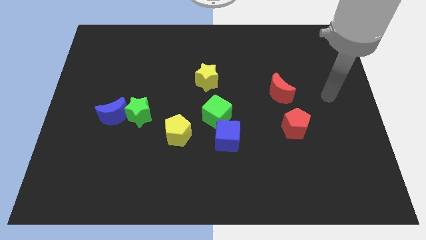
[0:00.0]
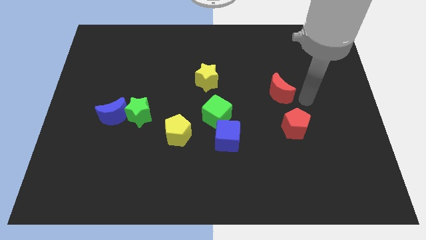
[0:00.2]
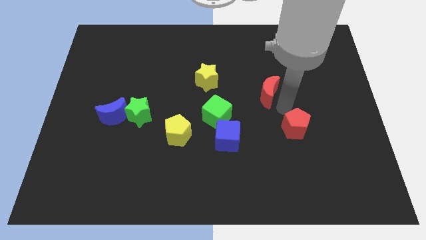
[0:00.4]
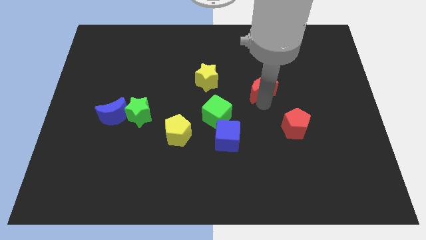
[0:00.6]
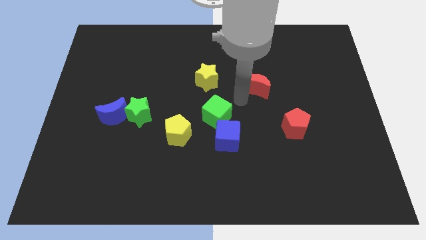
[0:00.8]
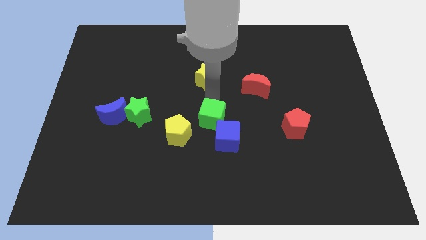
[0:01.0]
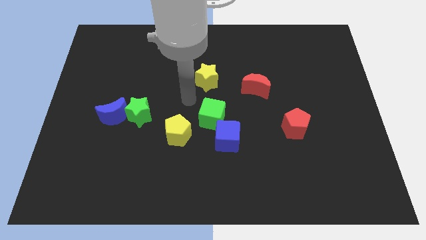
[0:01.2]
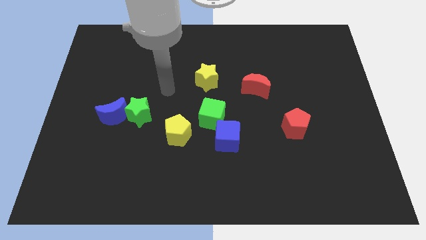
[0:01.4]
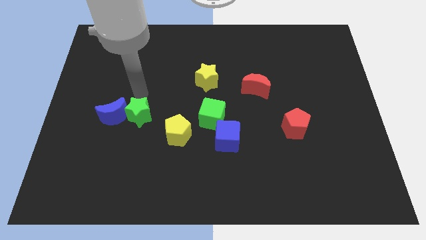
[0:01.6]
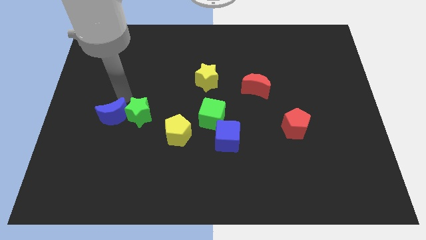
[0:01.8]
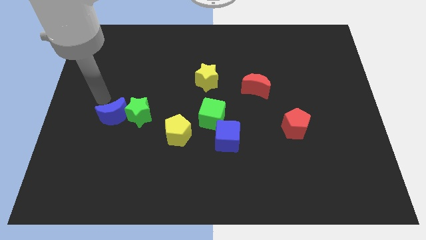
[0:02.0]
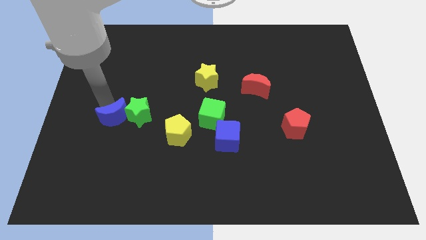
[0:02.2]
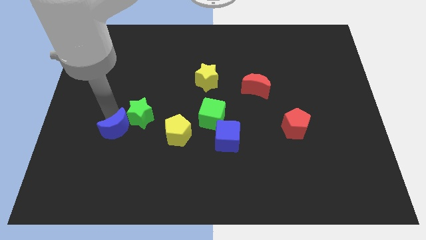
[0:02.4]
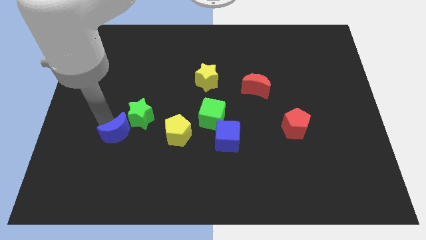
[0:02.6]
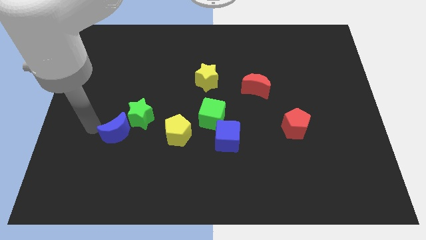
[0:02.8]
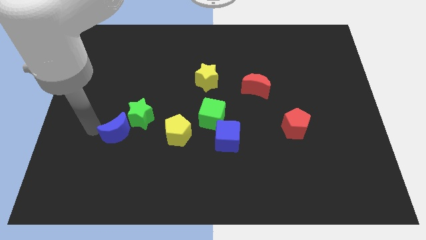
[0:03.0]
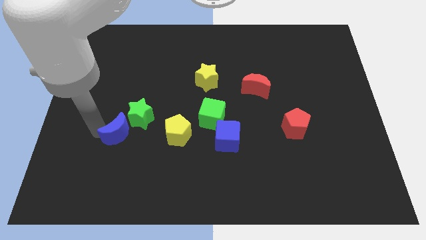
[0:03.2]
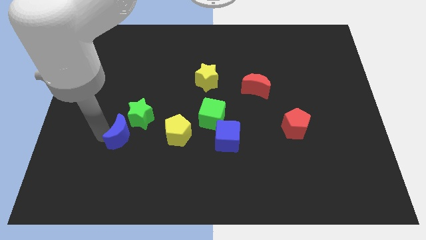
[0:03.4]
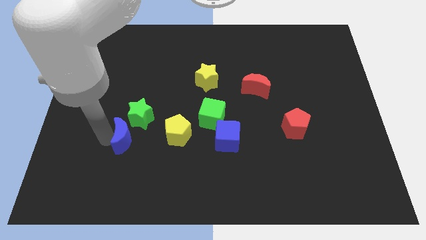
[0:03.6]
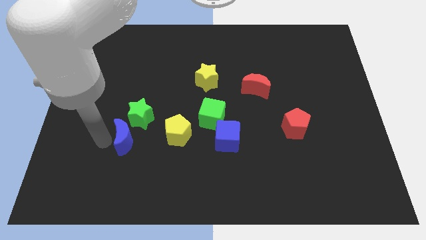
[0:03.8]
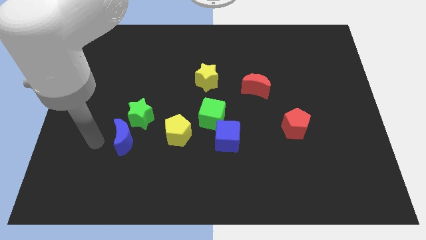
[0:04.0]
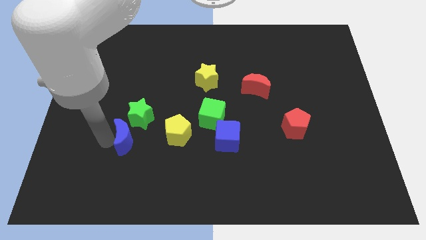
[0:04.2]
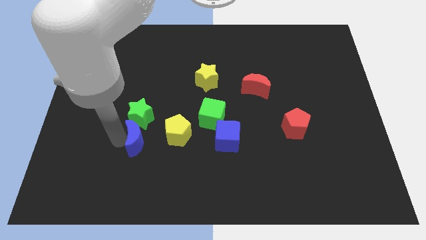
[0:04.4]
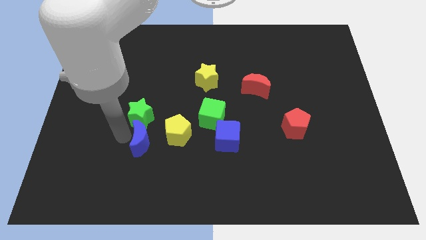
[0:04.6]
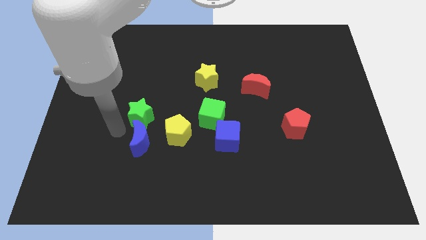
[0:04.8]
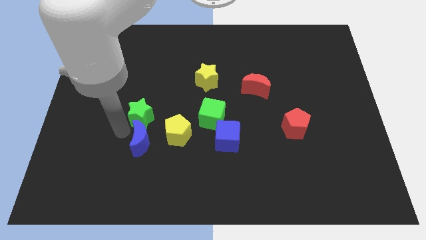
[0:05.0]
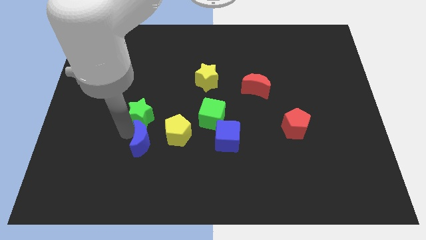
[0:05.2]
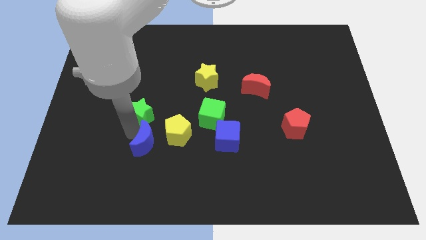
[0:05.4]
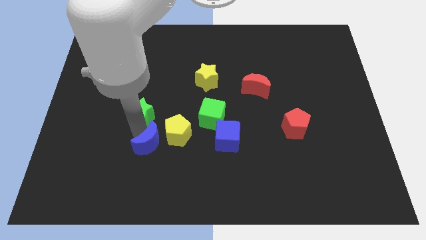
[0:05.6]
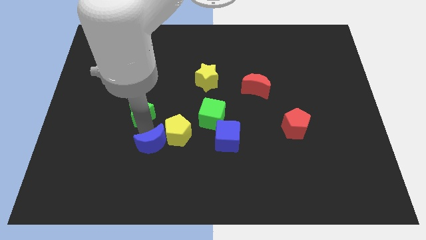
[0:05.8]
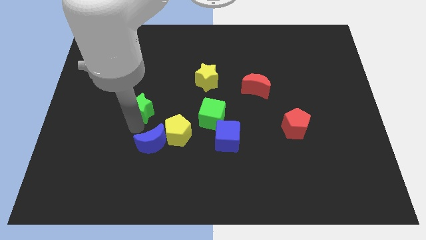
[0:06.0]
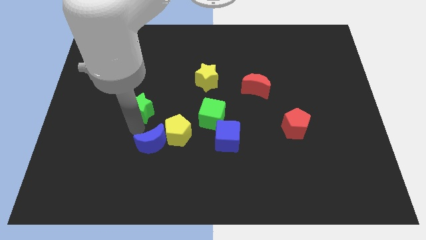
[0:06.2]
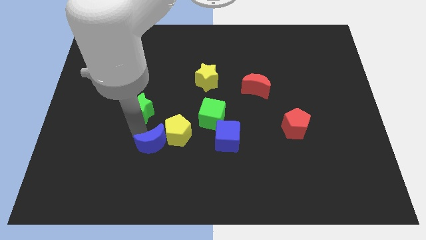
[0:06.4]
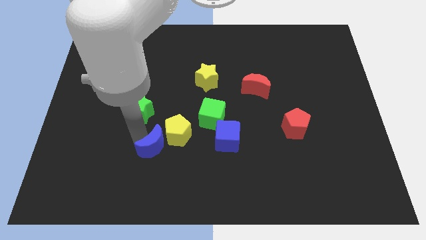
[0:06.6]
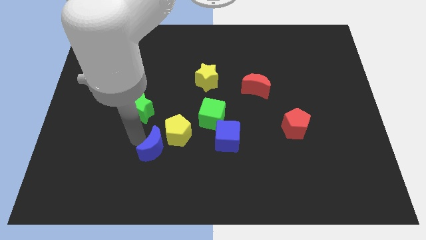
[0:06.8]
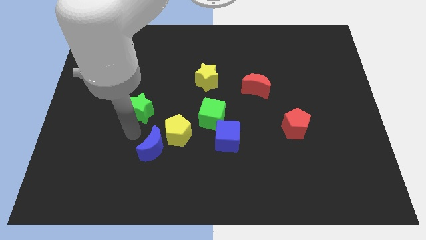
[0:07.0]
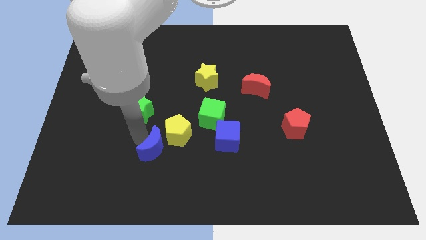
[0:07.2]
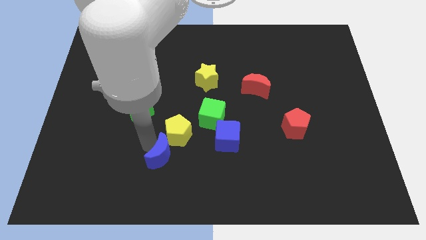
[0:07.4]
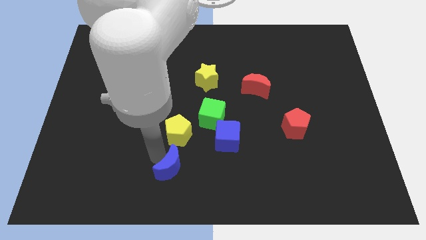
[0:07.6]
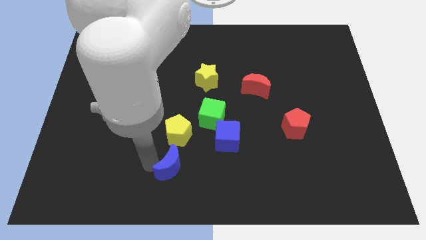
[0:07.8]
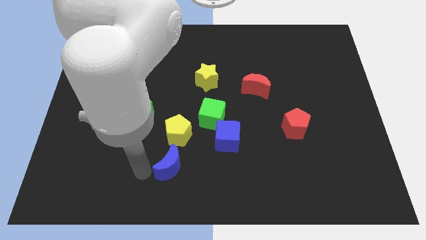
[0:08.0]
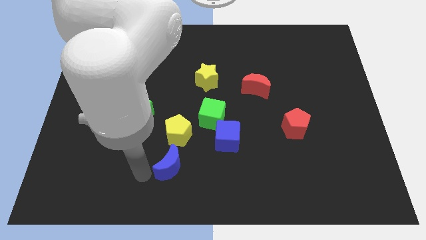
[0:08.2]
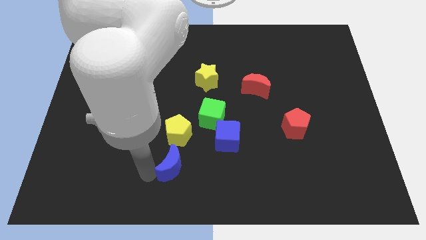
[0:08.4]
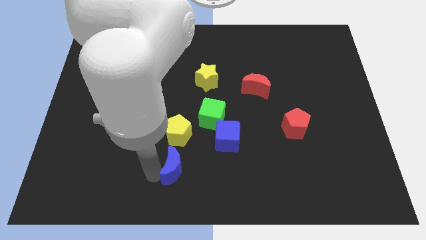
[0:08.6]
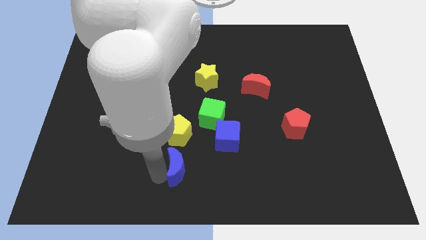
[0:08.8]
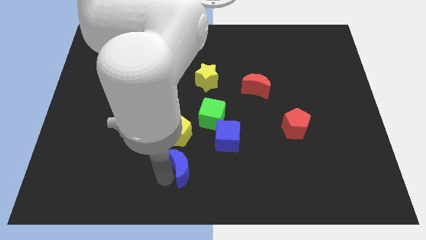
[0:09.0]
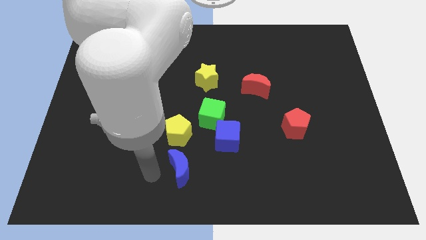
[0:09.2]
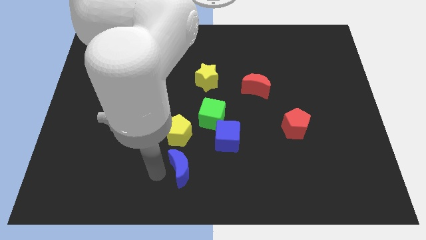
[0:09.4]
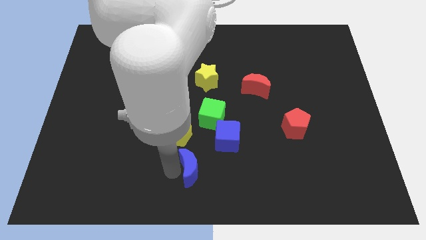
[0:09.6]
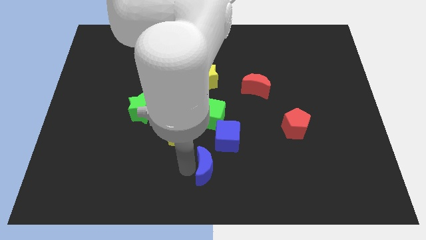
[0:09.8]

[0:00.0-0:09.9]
put the blue moon to the bottom side of the blue cube

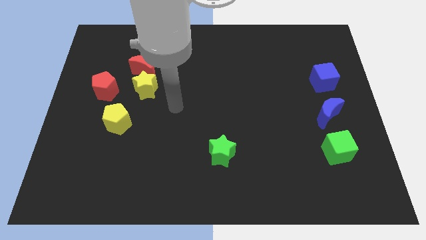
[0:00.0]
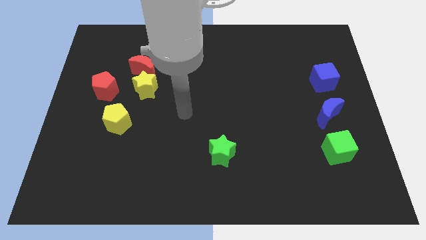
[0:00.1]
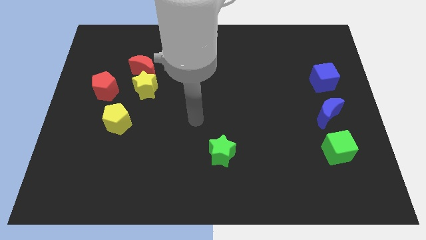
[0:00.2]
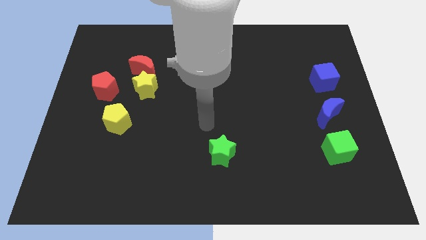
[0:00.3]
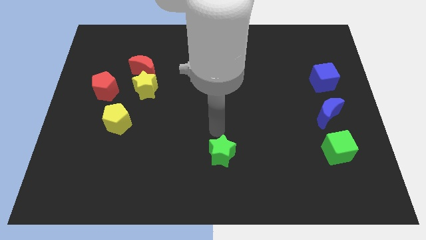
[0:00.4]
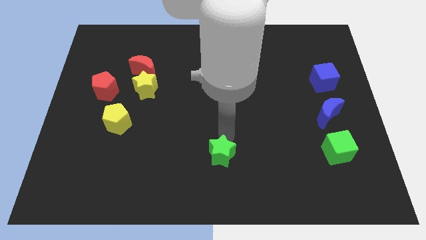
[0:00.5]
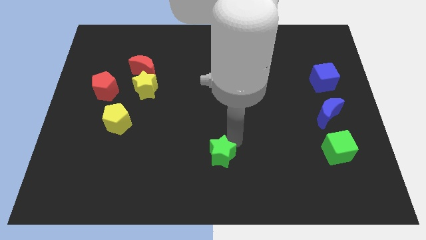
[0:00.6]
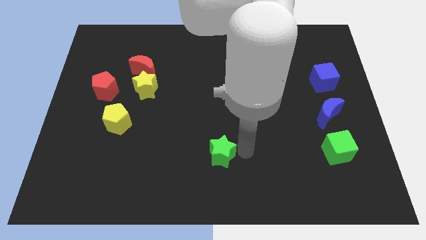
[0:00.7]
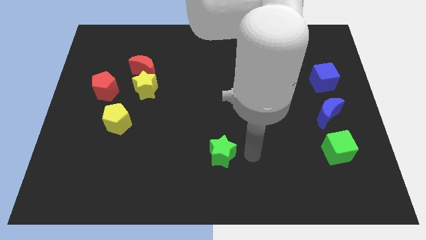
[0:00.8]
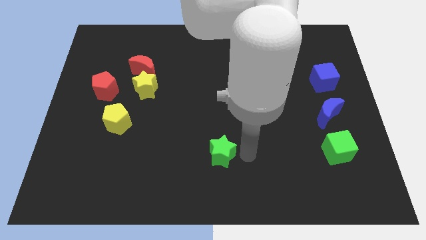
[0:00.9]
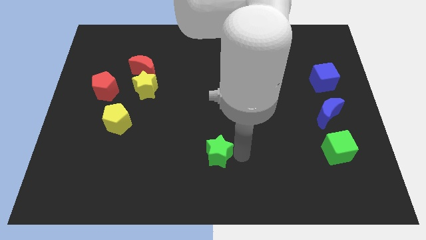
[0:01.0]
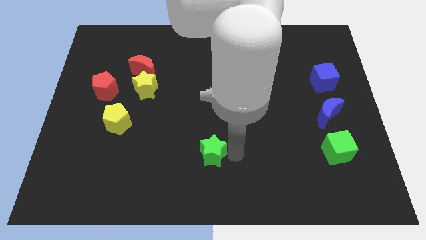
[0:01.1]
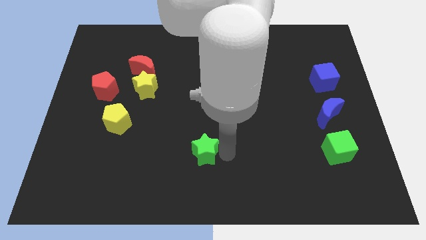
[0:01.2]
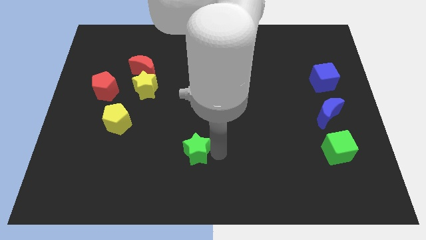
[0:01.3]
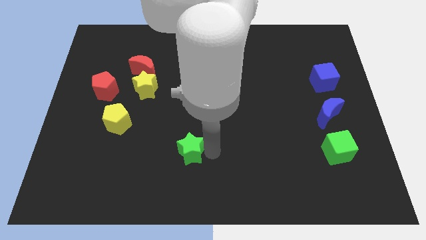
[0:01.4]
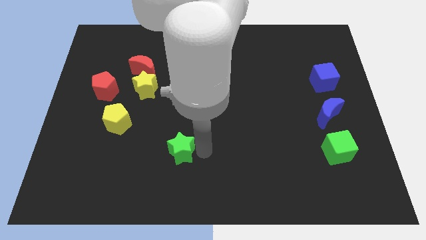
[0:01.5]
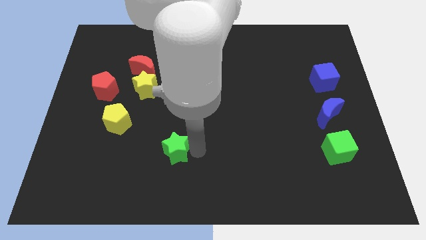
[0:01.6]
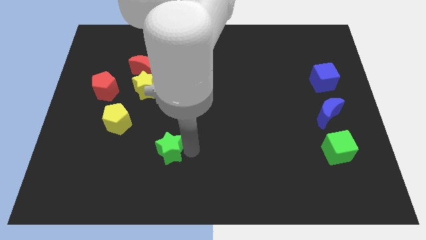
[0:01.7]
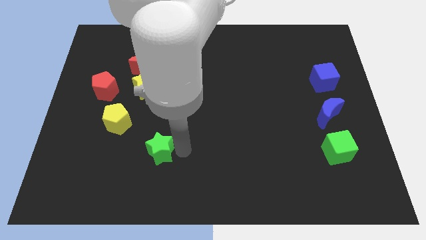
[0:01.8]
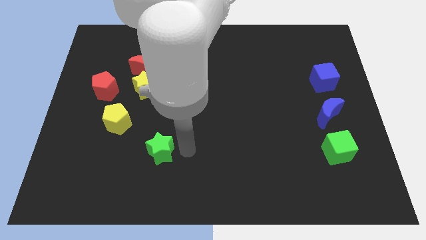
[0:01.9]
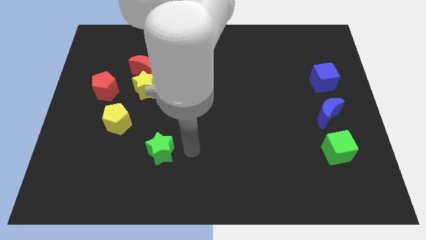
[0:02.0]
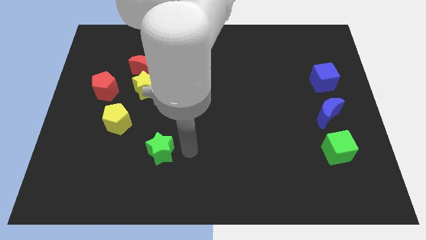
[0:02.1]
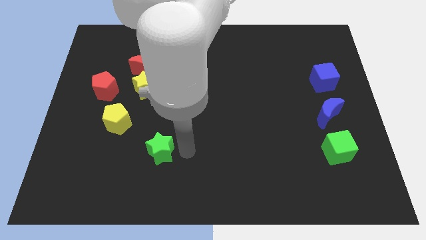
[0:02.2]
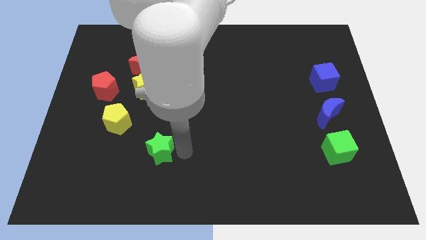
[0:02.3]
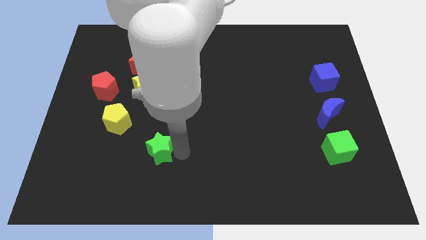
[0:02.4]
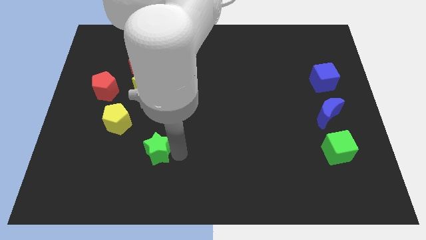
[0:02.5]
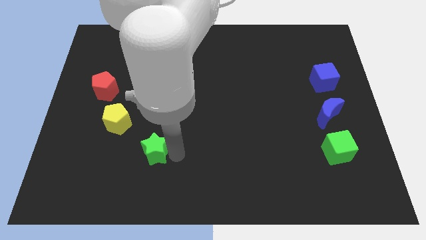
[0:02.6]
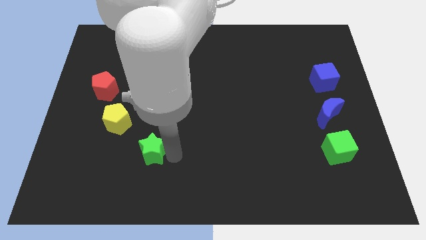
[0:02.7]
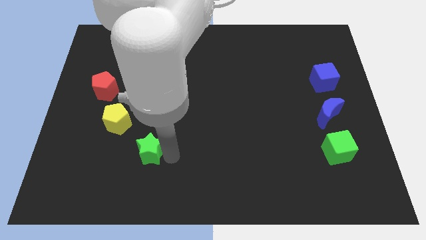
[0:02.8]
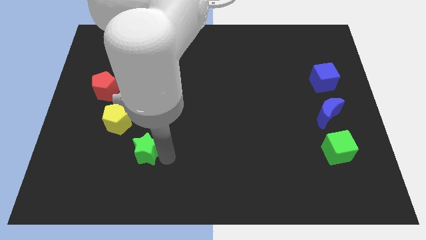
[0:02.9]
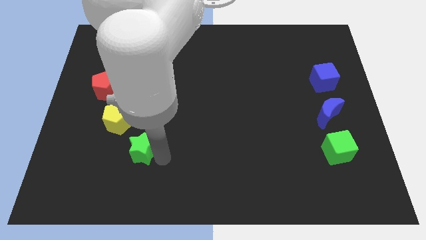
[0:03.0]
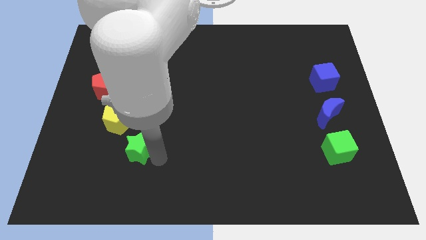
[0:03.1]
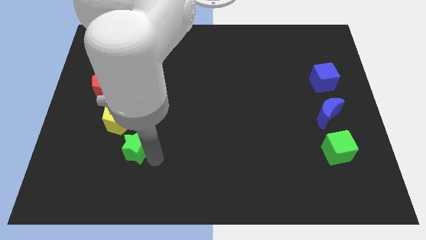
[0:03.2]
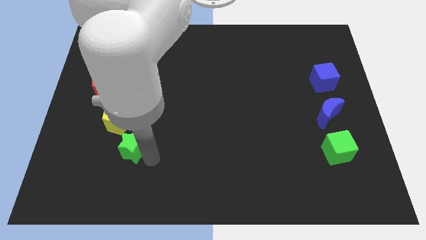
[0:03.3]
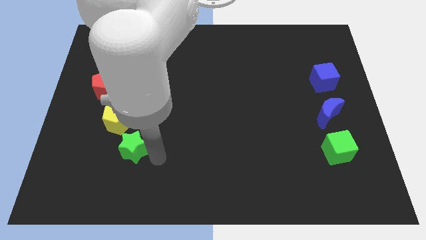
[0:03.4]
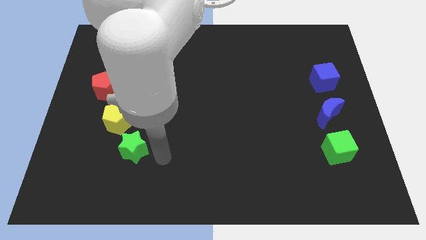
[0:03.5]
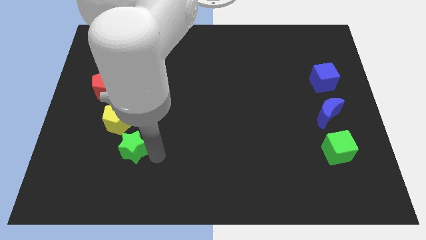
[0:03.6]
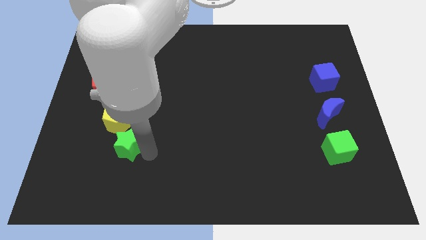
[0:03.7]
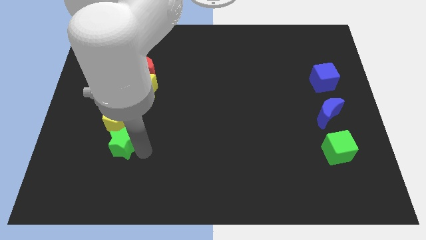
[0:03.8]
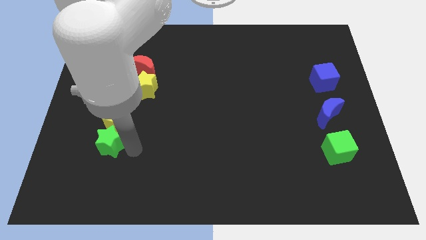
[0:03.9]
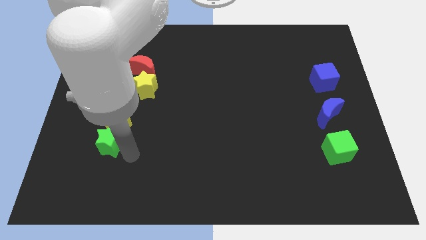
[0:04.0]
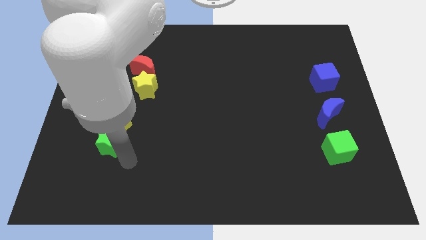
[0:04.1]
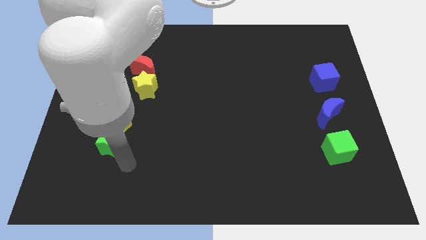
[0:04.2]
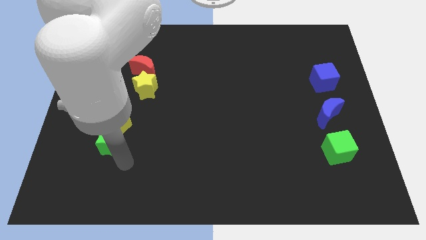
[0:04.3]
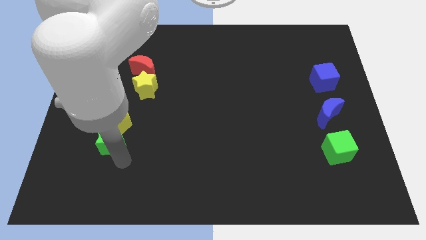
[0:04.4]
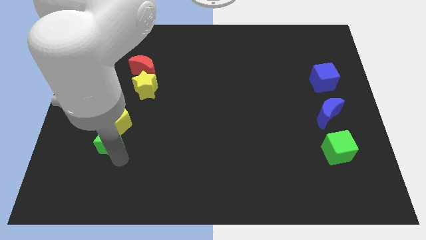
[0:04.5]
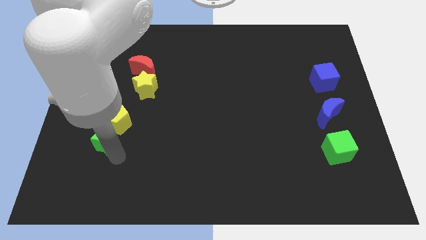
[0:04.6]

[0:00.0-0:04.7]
move the green star to the bottom side of the red pentagon
